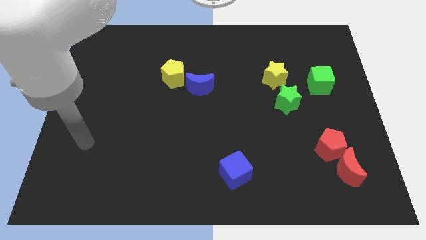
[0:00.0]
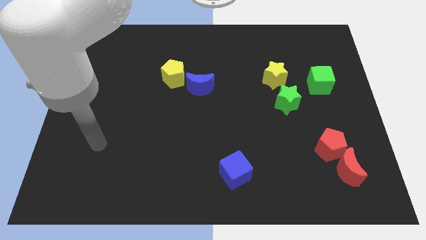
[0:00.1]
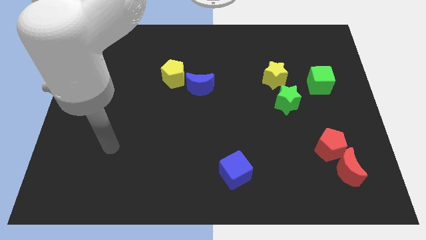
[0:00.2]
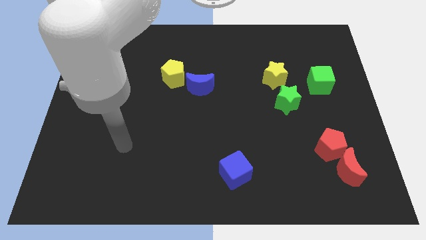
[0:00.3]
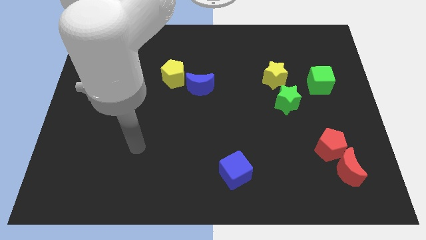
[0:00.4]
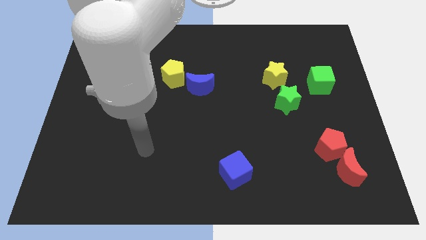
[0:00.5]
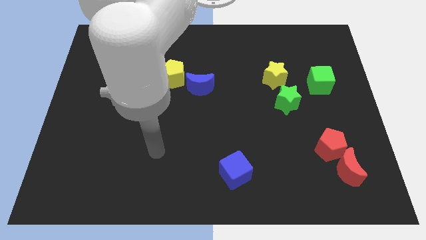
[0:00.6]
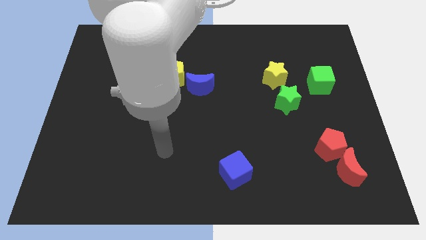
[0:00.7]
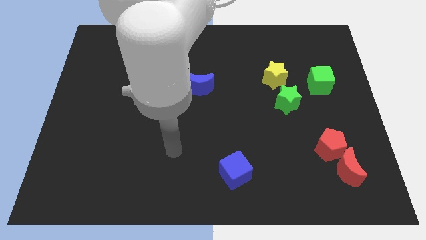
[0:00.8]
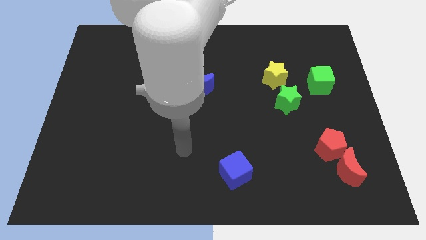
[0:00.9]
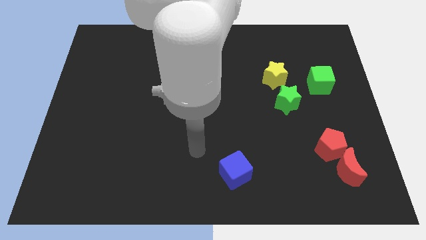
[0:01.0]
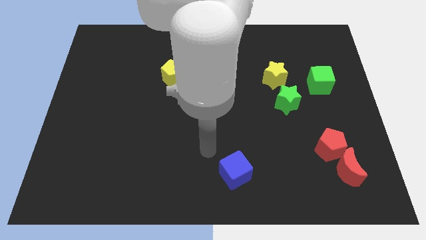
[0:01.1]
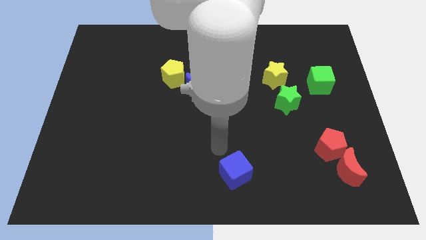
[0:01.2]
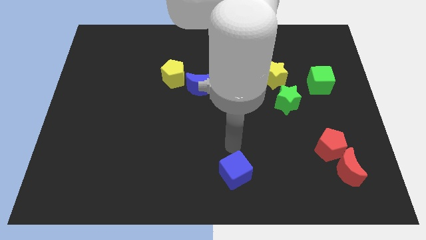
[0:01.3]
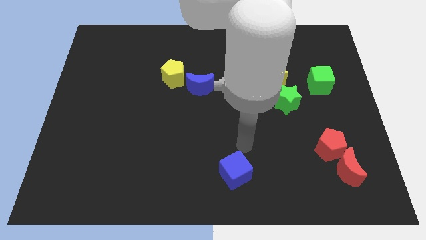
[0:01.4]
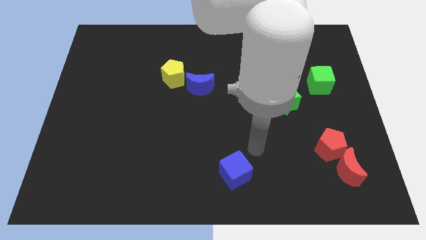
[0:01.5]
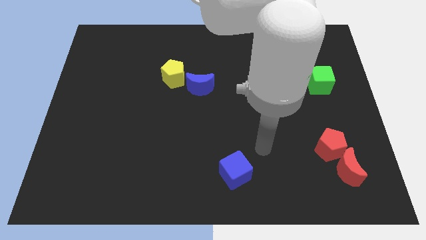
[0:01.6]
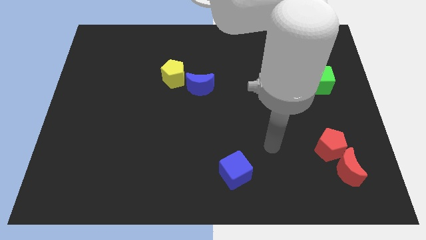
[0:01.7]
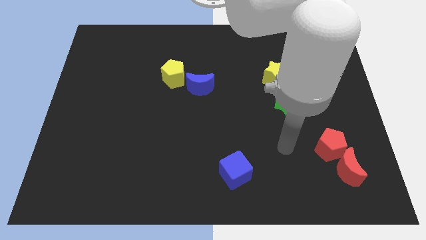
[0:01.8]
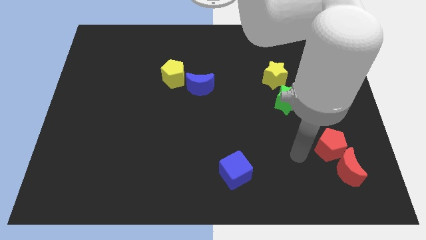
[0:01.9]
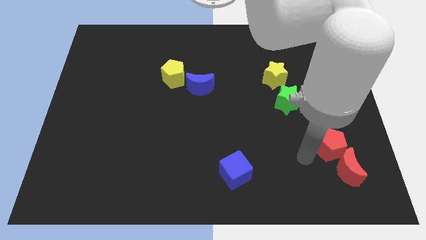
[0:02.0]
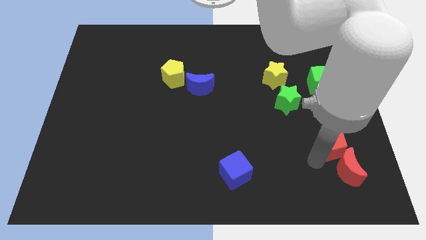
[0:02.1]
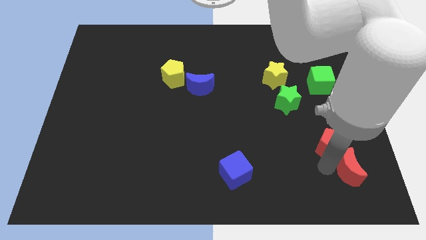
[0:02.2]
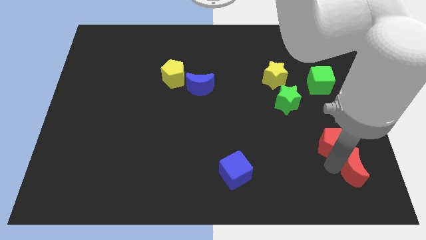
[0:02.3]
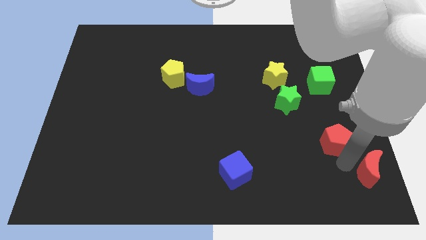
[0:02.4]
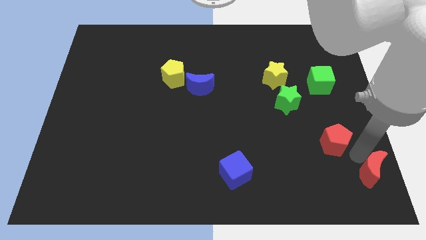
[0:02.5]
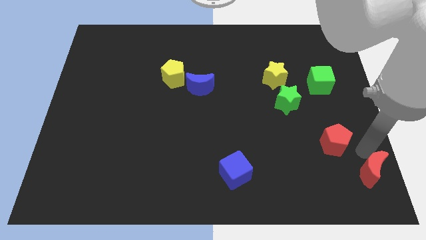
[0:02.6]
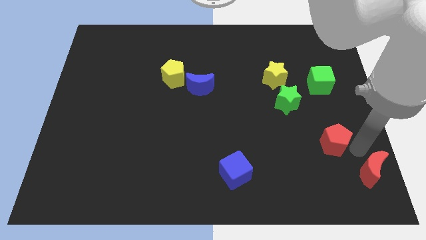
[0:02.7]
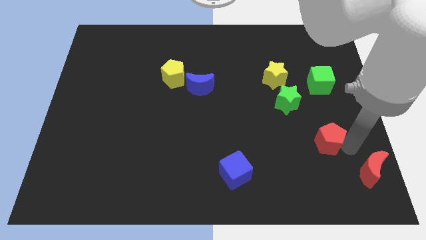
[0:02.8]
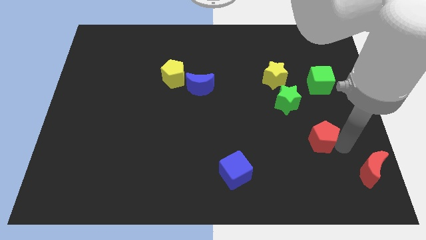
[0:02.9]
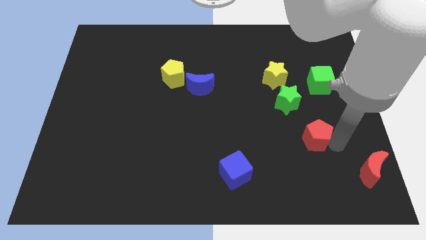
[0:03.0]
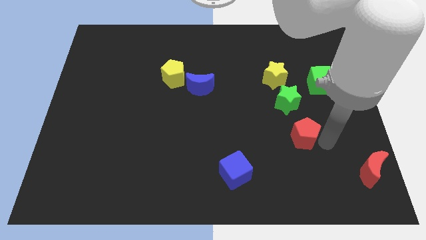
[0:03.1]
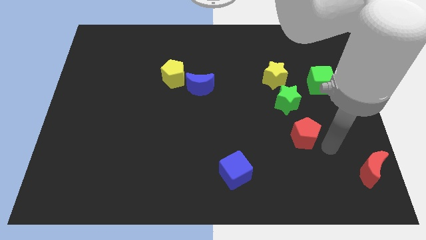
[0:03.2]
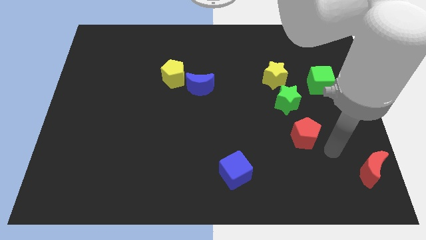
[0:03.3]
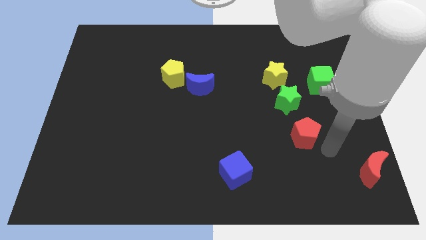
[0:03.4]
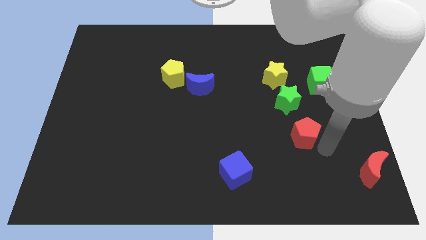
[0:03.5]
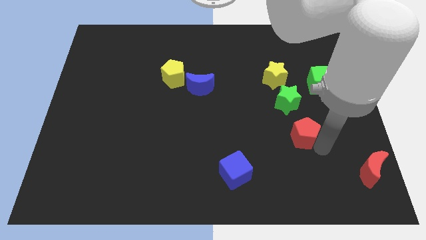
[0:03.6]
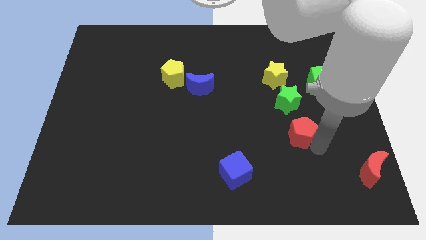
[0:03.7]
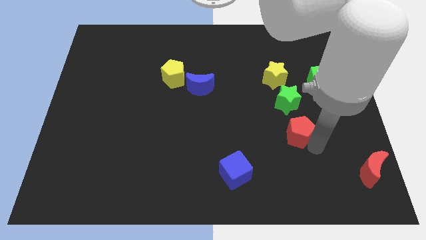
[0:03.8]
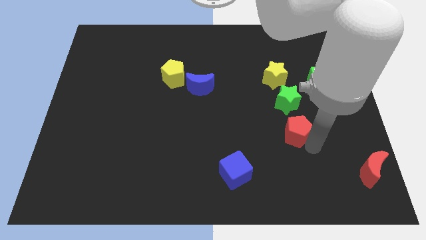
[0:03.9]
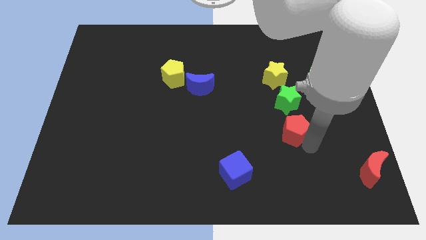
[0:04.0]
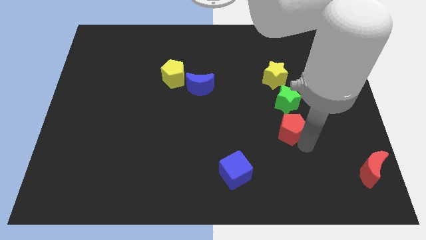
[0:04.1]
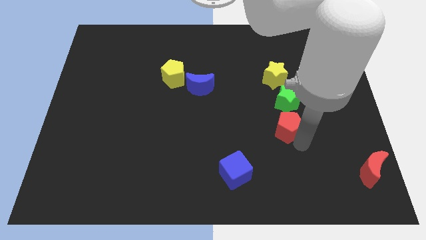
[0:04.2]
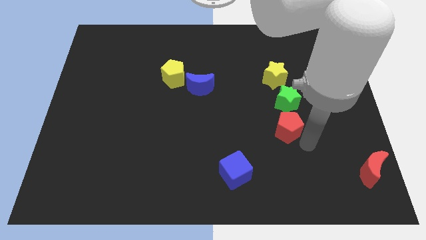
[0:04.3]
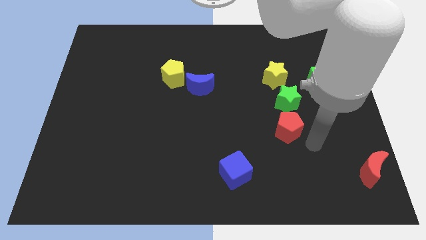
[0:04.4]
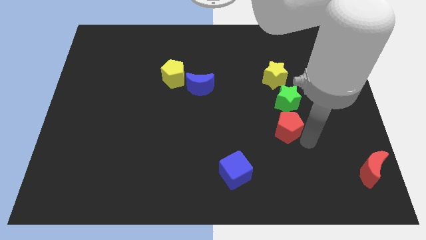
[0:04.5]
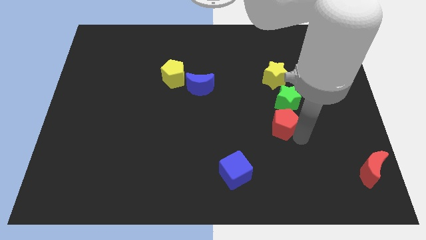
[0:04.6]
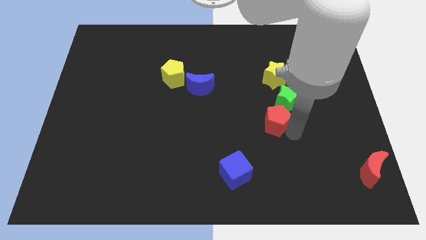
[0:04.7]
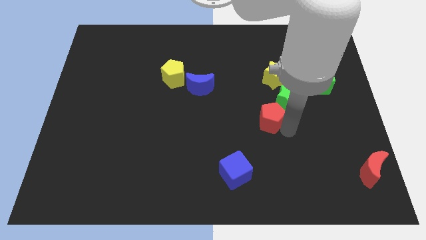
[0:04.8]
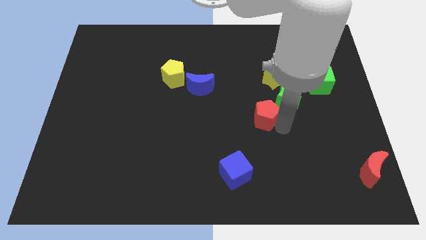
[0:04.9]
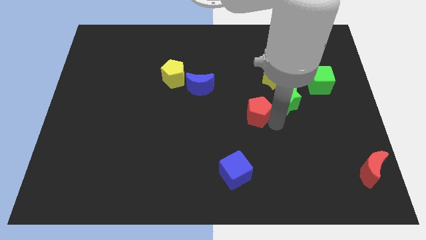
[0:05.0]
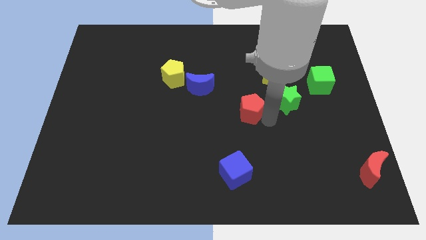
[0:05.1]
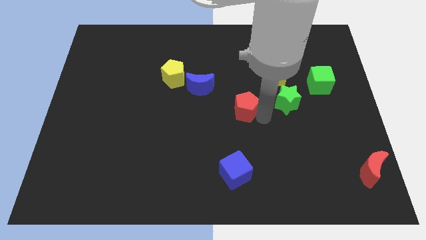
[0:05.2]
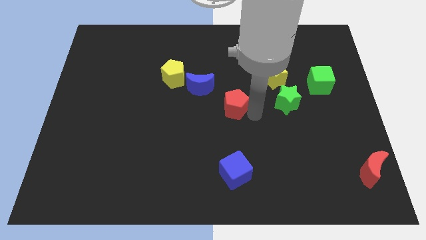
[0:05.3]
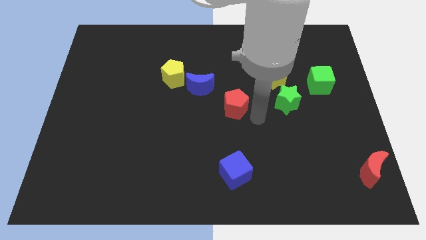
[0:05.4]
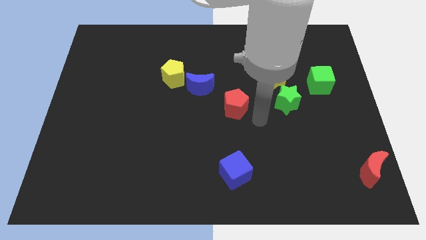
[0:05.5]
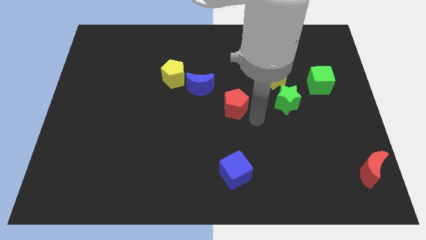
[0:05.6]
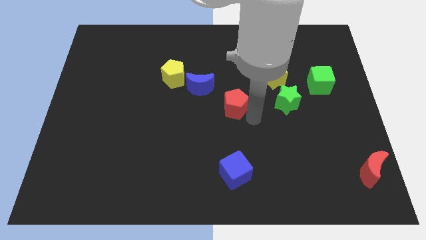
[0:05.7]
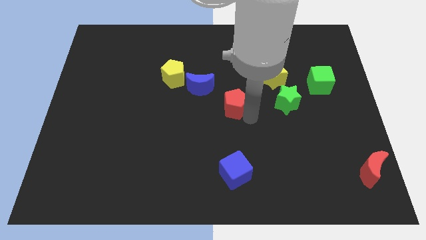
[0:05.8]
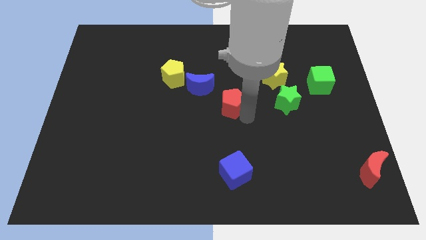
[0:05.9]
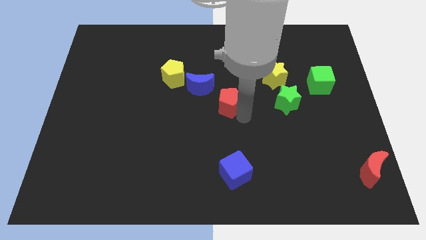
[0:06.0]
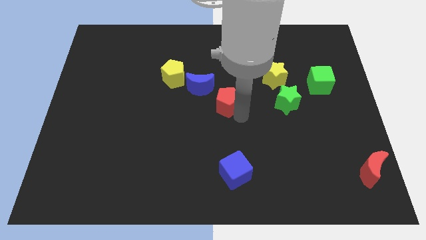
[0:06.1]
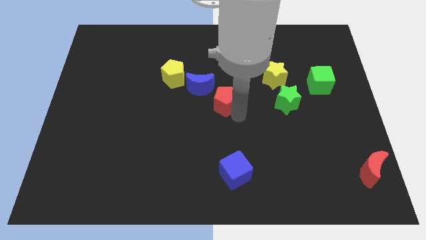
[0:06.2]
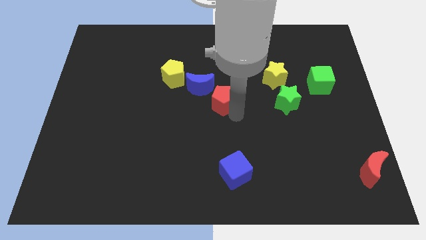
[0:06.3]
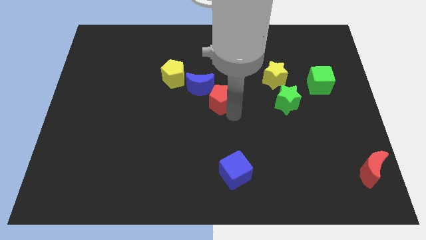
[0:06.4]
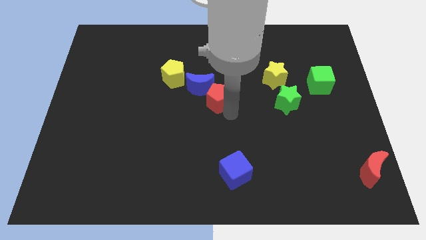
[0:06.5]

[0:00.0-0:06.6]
push the red pentagon to the blue moon

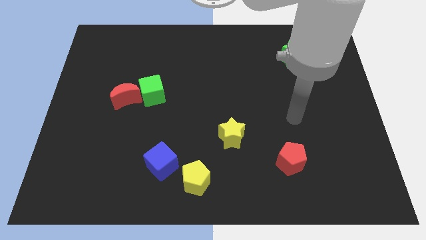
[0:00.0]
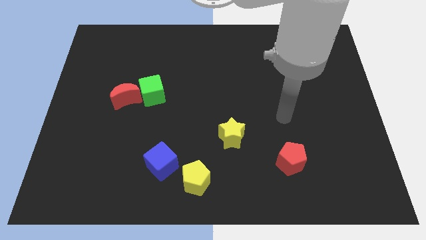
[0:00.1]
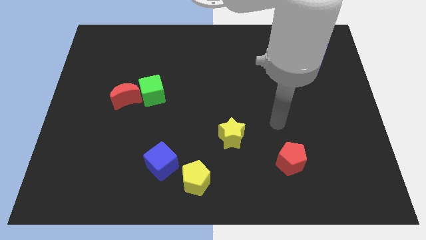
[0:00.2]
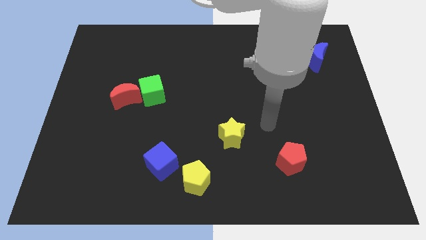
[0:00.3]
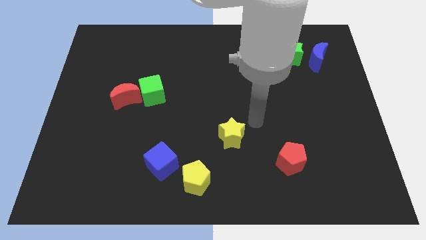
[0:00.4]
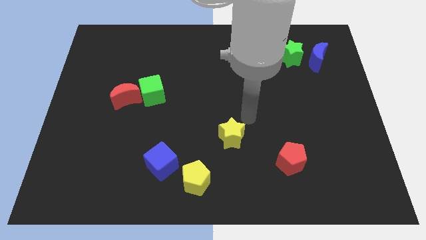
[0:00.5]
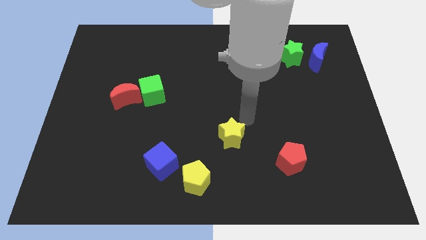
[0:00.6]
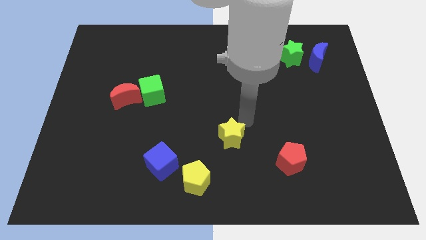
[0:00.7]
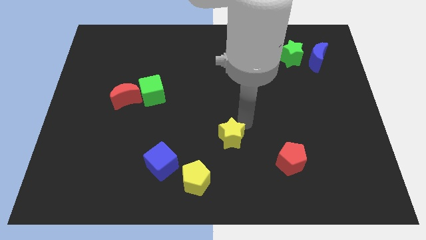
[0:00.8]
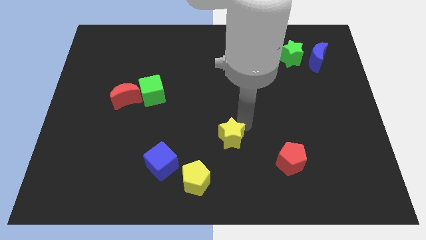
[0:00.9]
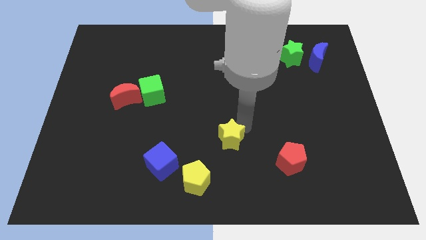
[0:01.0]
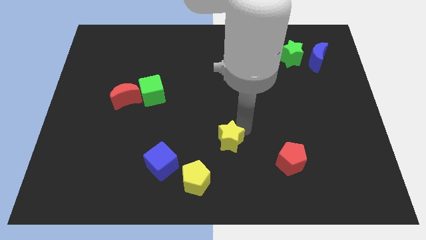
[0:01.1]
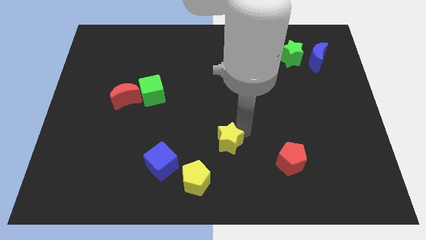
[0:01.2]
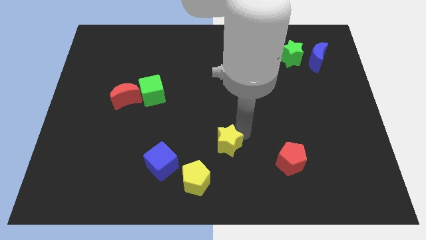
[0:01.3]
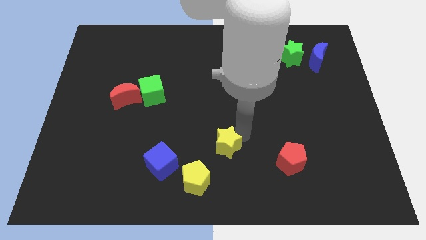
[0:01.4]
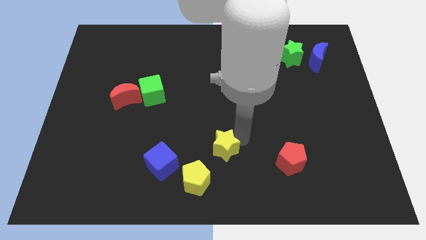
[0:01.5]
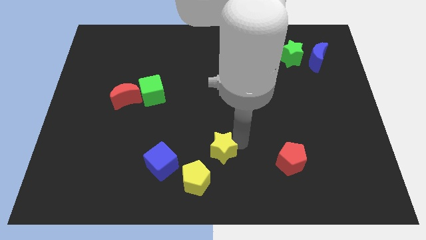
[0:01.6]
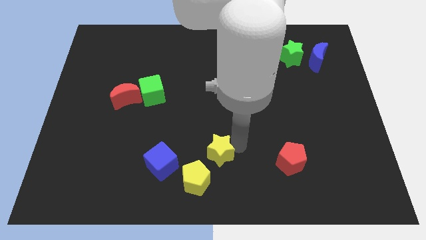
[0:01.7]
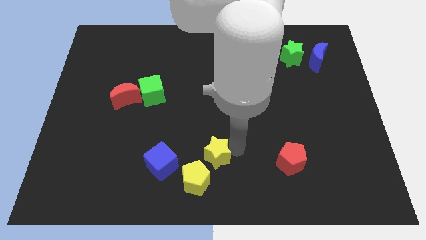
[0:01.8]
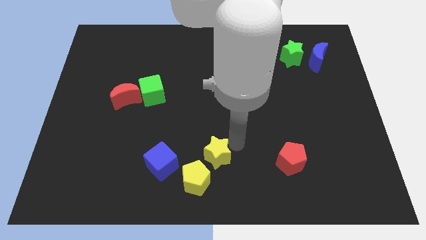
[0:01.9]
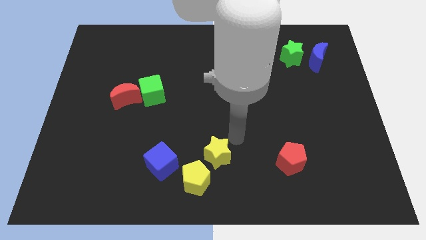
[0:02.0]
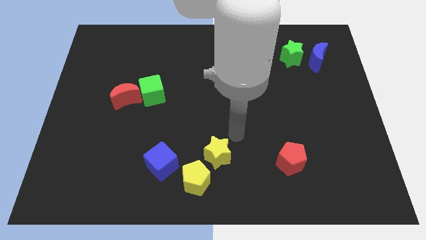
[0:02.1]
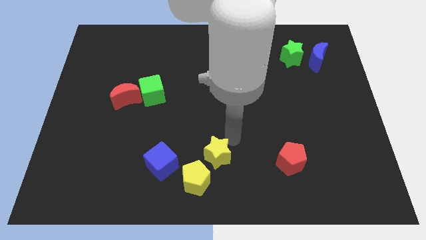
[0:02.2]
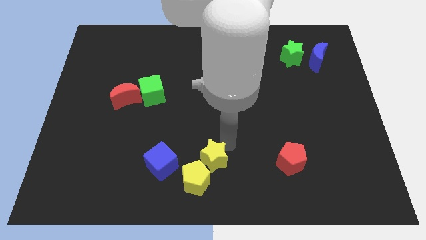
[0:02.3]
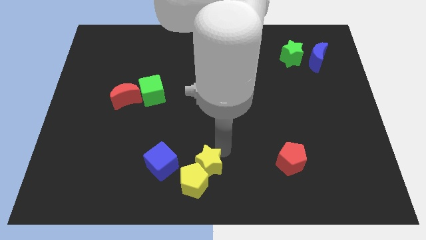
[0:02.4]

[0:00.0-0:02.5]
move the yellow star close to the yellow pentagon
